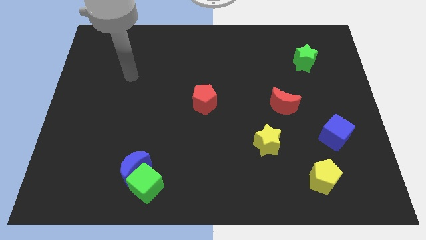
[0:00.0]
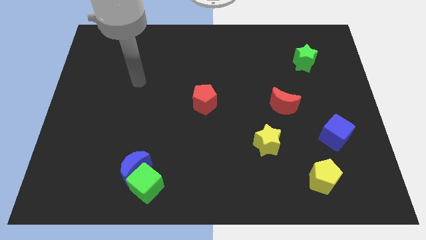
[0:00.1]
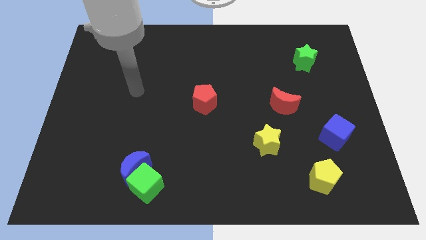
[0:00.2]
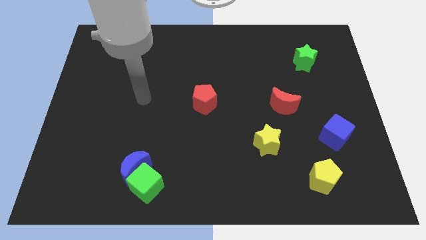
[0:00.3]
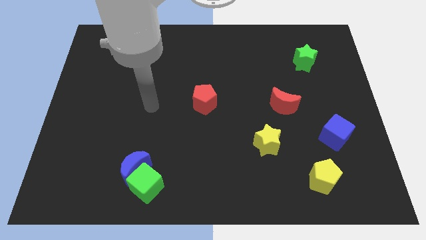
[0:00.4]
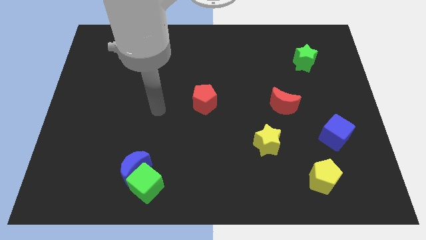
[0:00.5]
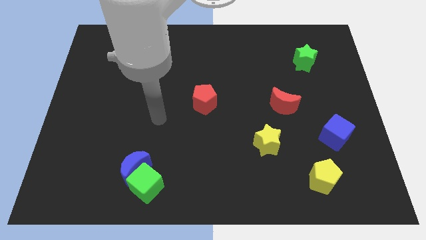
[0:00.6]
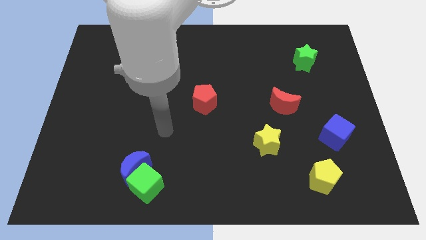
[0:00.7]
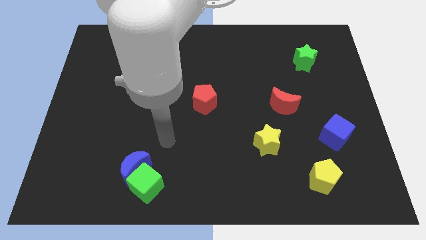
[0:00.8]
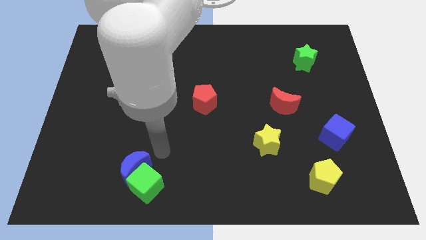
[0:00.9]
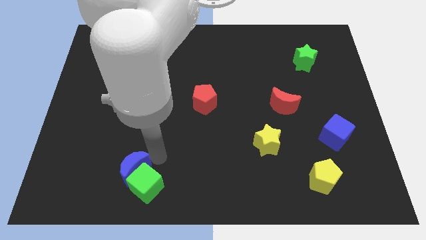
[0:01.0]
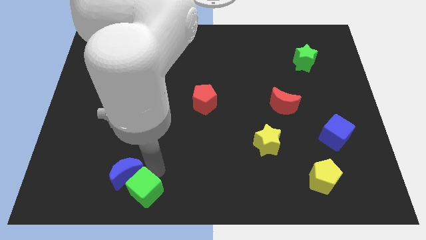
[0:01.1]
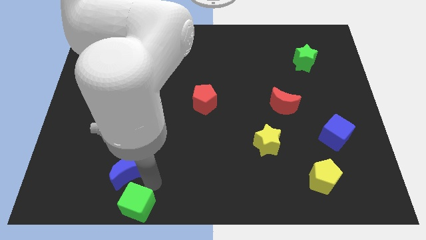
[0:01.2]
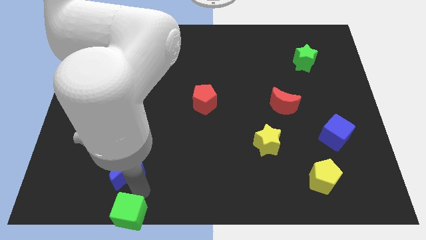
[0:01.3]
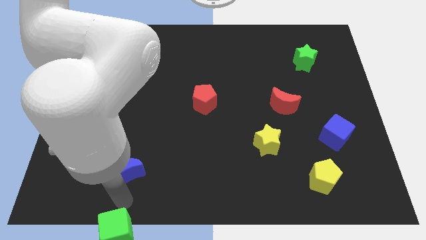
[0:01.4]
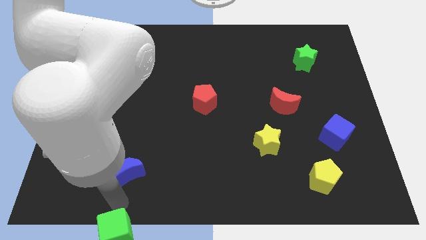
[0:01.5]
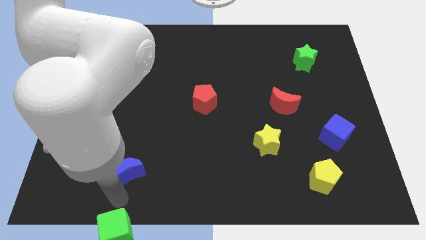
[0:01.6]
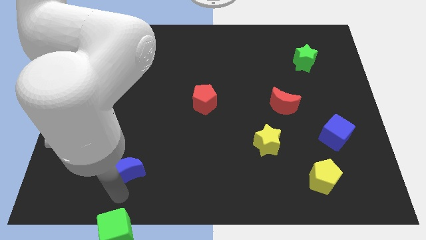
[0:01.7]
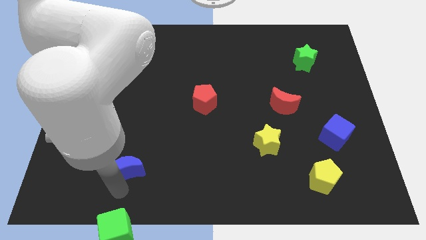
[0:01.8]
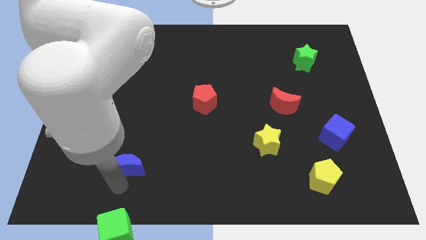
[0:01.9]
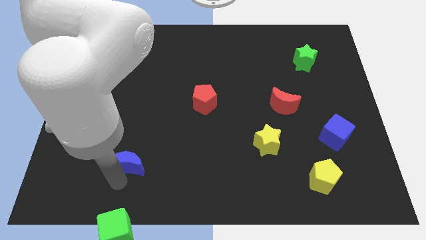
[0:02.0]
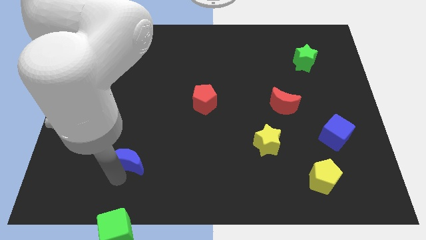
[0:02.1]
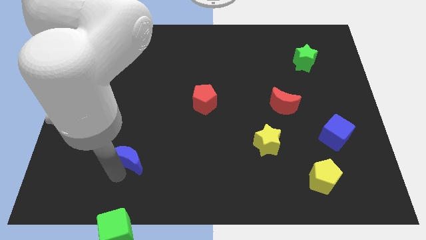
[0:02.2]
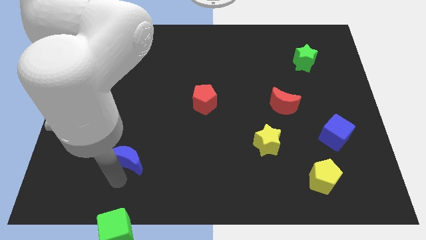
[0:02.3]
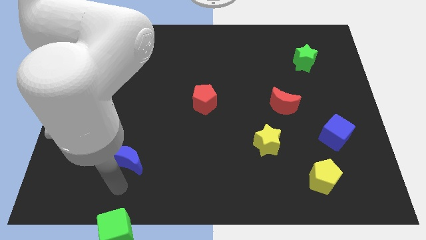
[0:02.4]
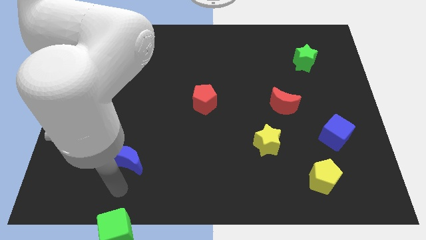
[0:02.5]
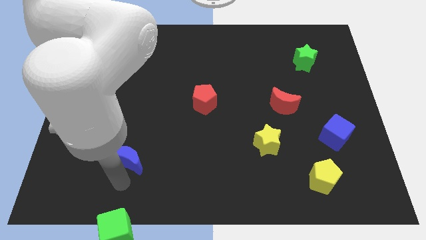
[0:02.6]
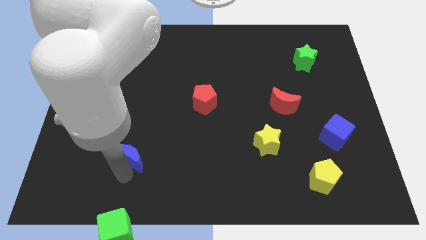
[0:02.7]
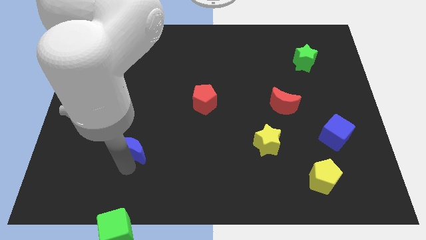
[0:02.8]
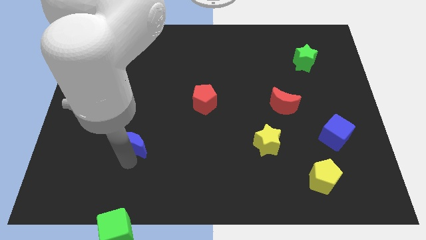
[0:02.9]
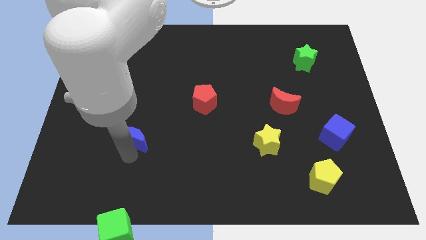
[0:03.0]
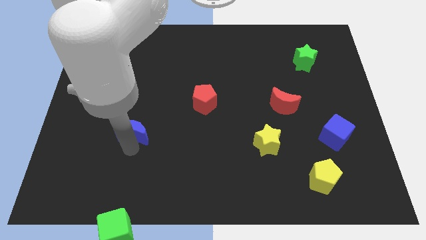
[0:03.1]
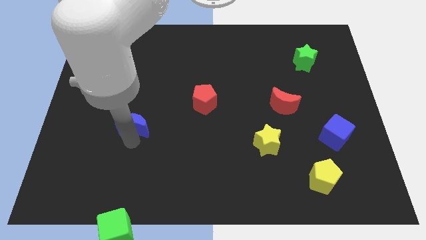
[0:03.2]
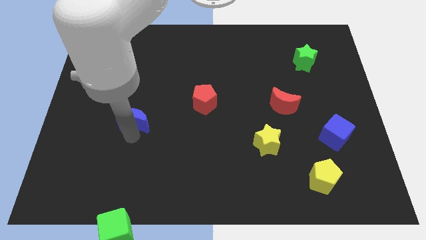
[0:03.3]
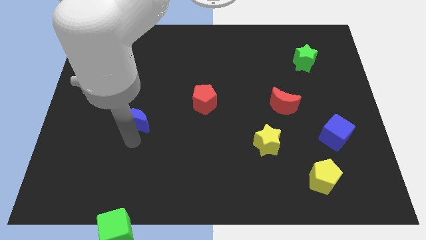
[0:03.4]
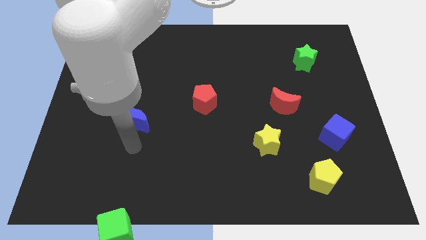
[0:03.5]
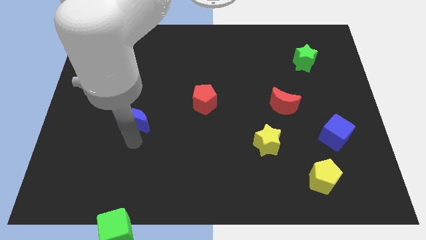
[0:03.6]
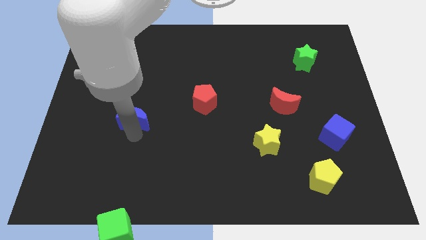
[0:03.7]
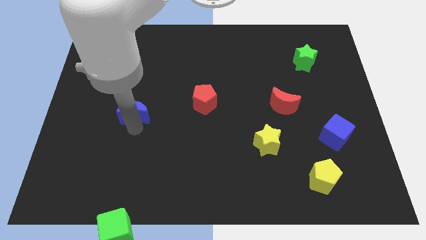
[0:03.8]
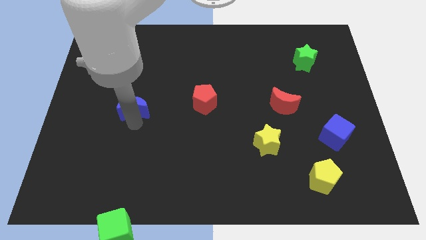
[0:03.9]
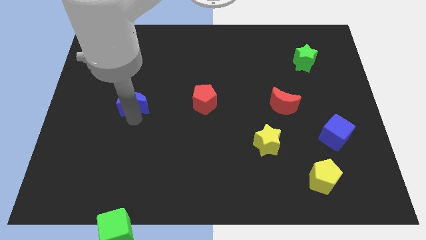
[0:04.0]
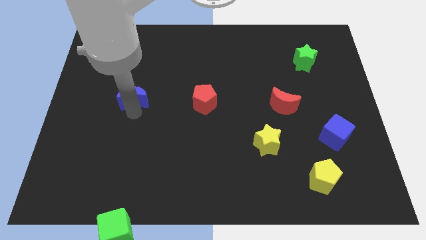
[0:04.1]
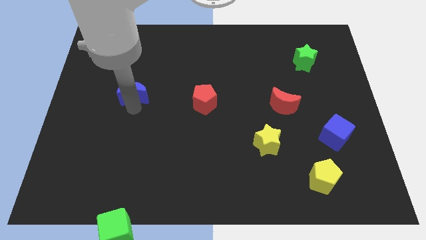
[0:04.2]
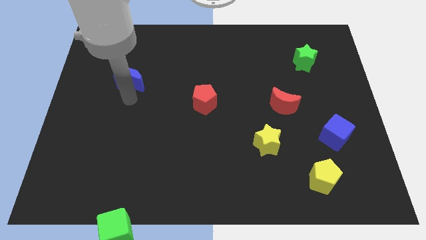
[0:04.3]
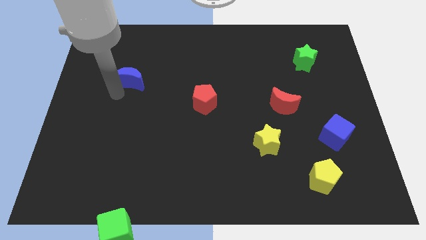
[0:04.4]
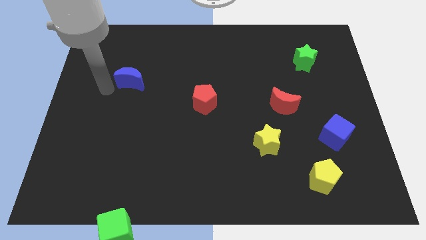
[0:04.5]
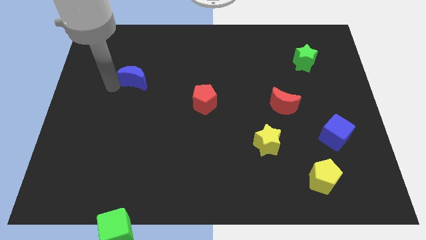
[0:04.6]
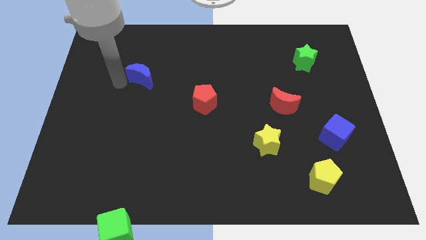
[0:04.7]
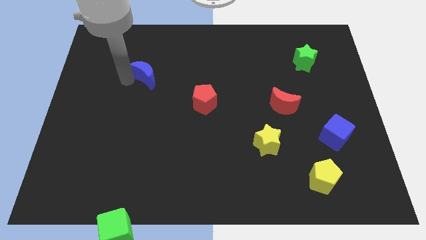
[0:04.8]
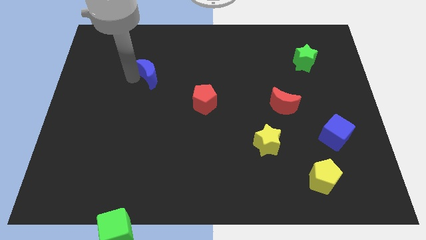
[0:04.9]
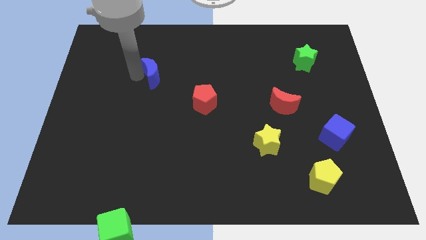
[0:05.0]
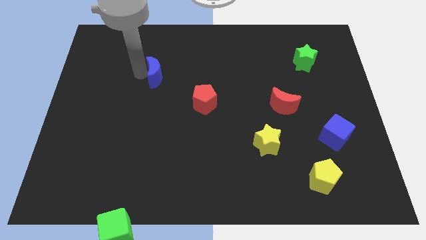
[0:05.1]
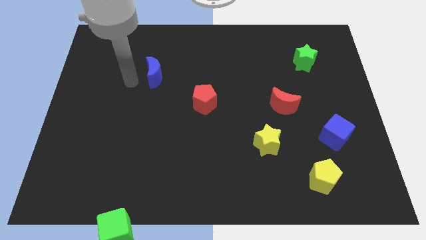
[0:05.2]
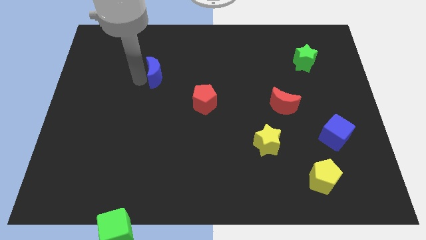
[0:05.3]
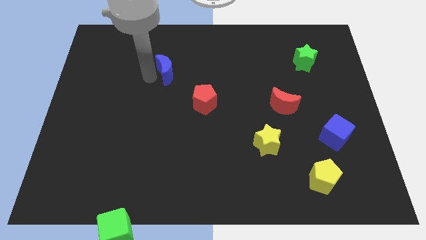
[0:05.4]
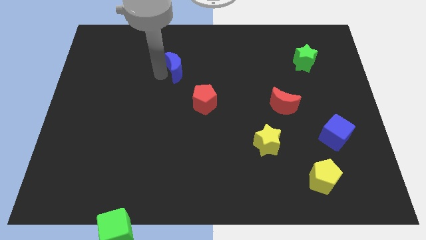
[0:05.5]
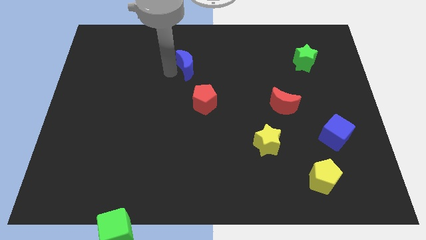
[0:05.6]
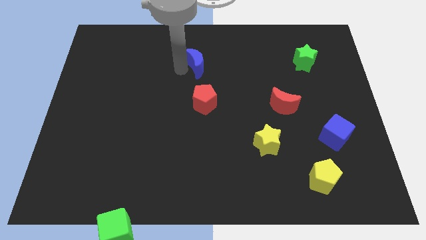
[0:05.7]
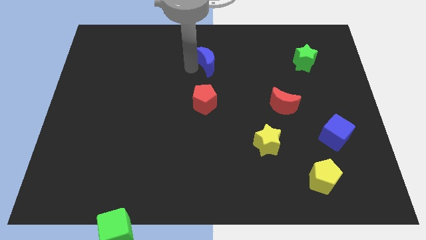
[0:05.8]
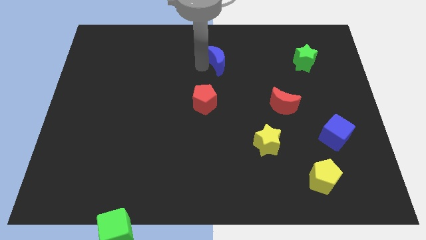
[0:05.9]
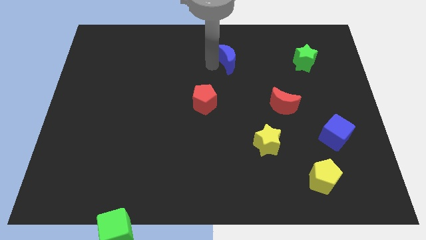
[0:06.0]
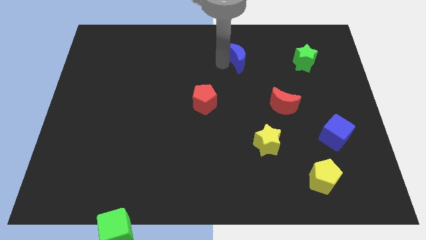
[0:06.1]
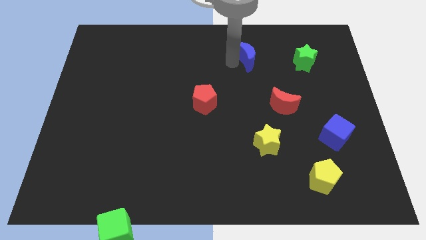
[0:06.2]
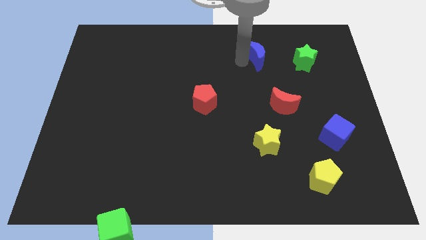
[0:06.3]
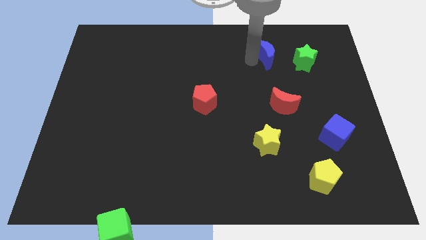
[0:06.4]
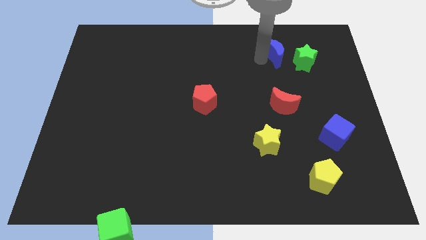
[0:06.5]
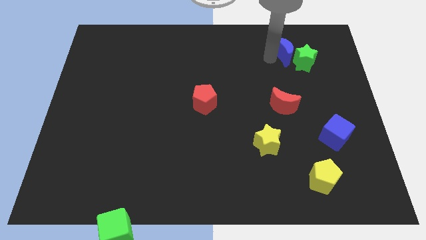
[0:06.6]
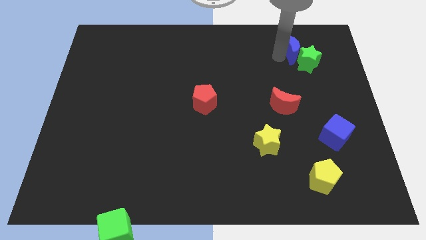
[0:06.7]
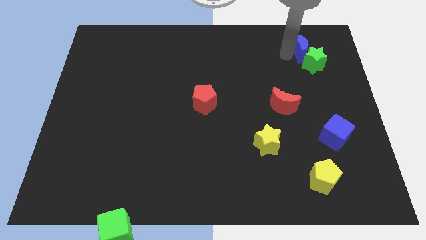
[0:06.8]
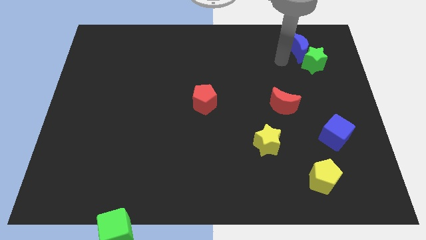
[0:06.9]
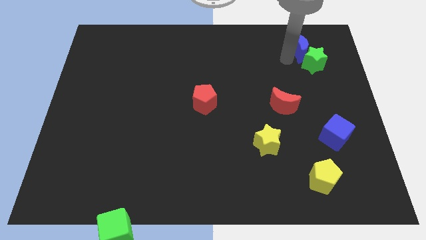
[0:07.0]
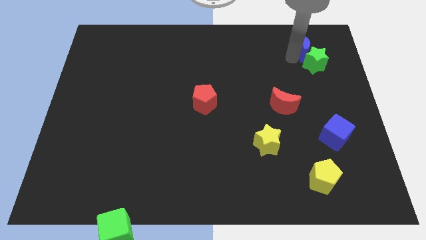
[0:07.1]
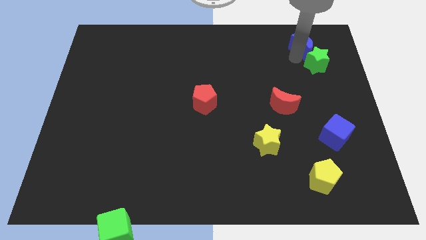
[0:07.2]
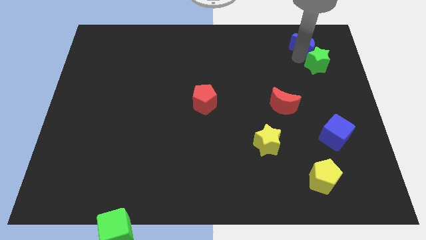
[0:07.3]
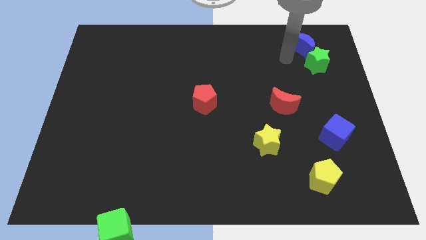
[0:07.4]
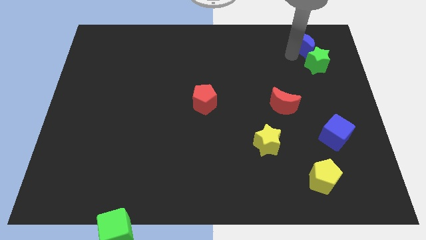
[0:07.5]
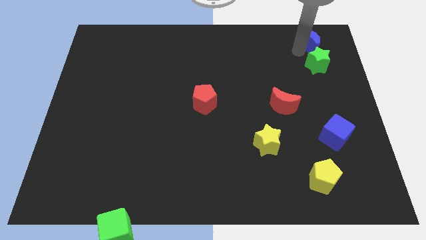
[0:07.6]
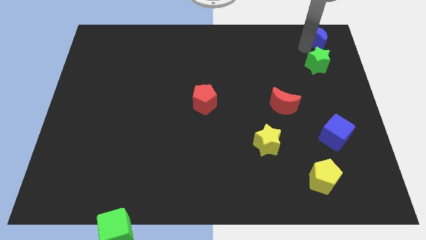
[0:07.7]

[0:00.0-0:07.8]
slide the blue moon to the top right of the board
